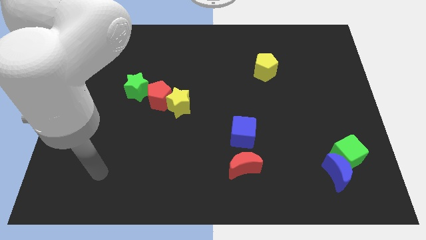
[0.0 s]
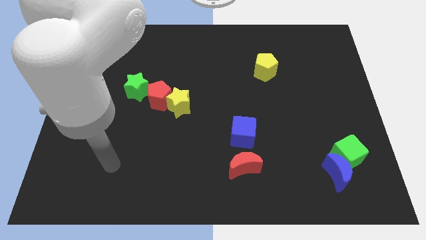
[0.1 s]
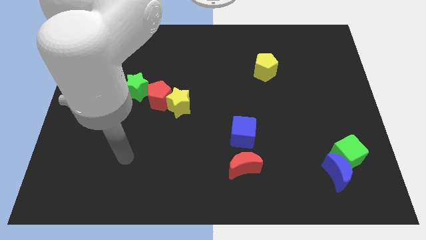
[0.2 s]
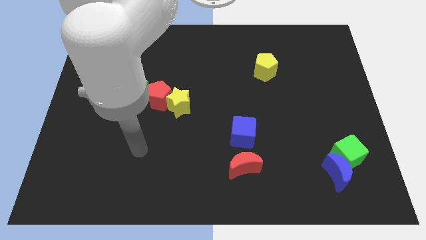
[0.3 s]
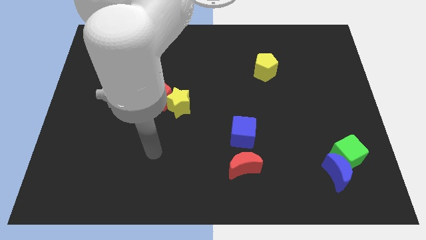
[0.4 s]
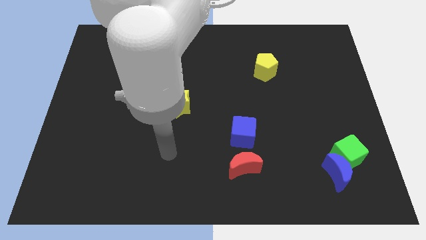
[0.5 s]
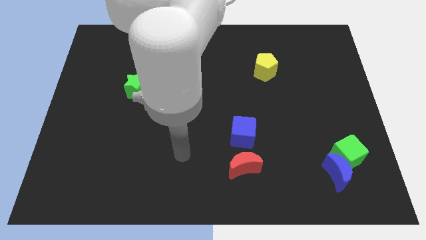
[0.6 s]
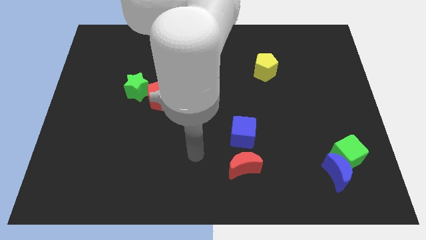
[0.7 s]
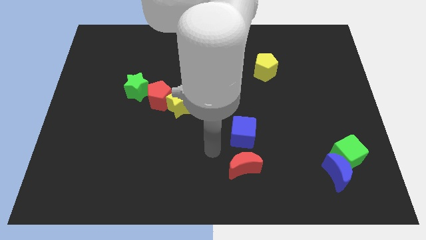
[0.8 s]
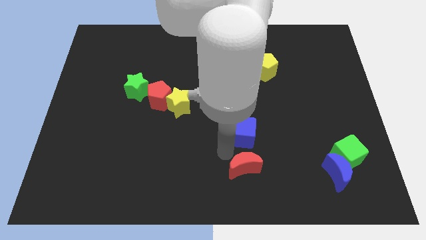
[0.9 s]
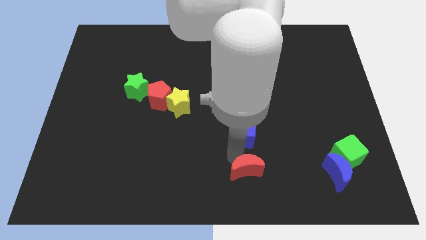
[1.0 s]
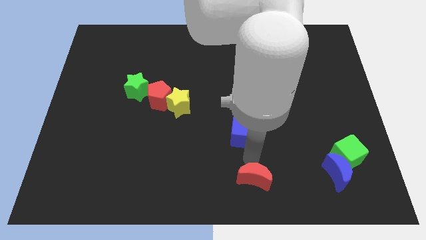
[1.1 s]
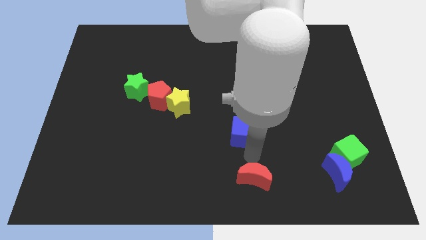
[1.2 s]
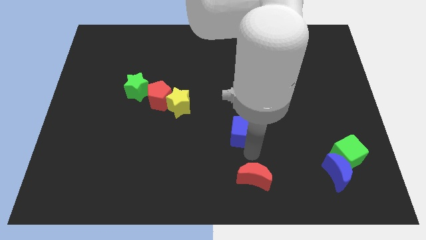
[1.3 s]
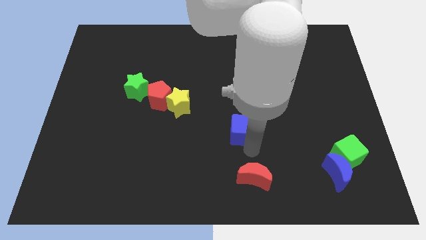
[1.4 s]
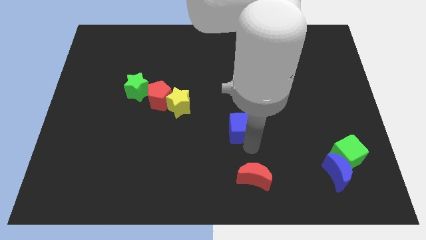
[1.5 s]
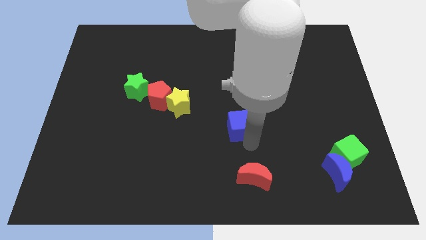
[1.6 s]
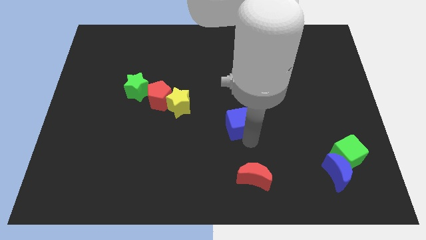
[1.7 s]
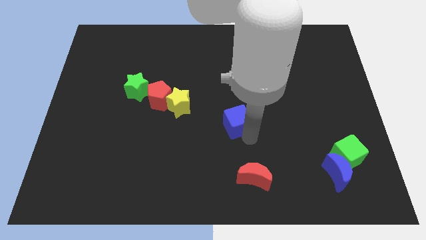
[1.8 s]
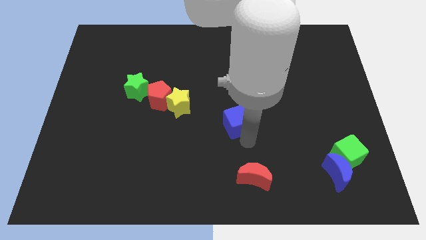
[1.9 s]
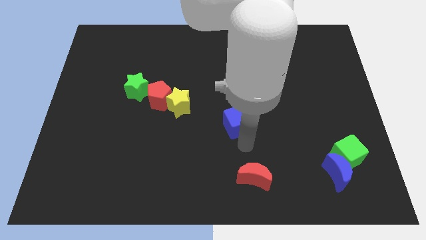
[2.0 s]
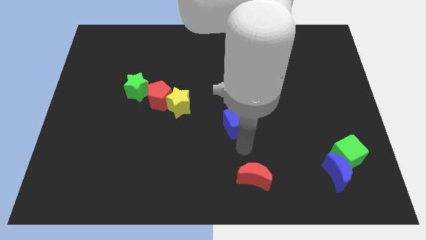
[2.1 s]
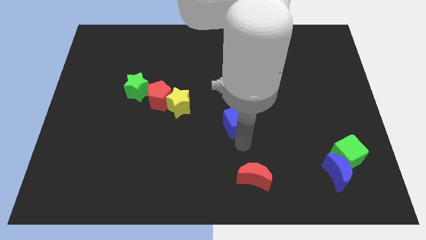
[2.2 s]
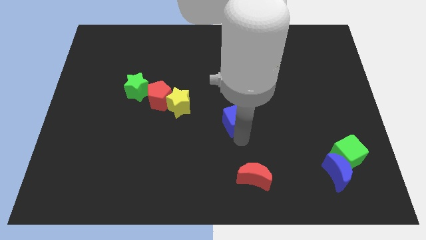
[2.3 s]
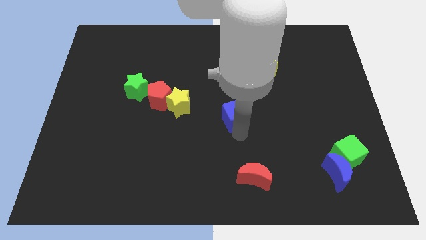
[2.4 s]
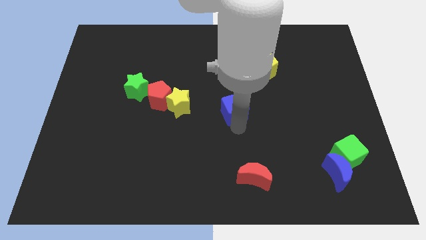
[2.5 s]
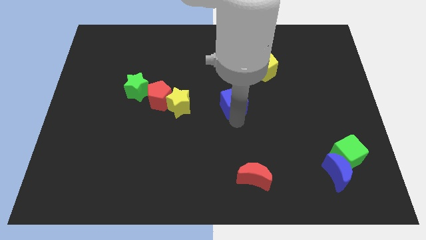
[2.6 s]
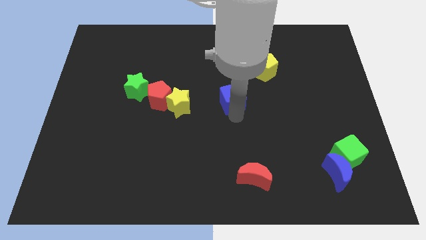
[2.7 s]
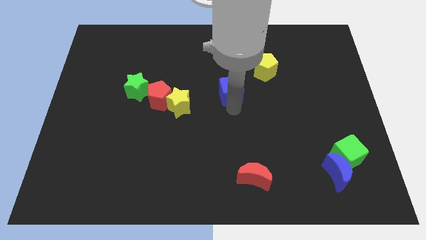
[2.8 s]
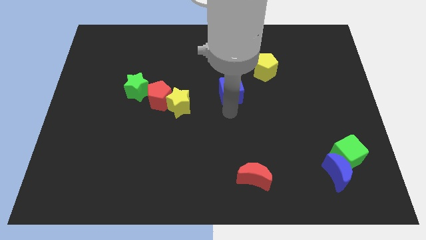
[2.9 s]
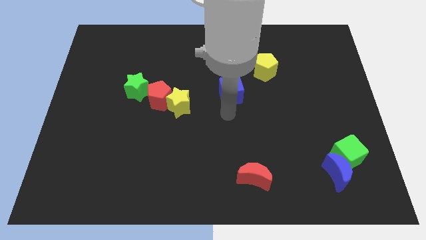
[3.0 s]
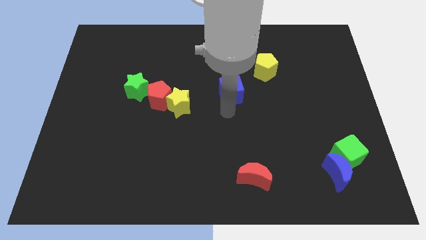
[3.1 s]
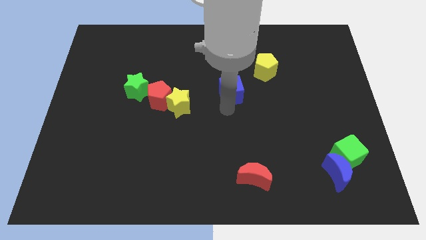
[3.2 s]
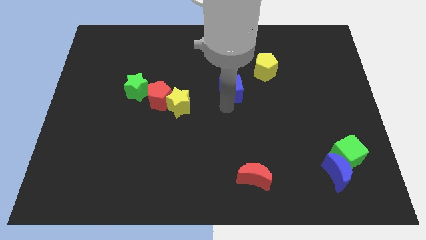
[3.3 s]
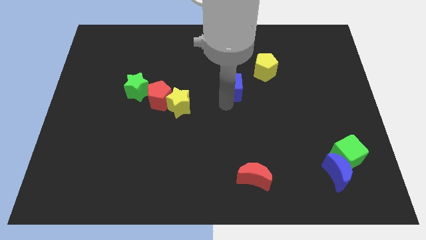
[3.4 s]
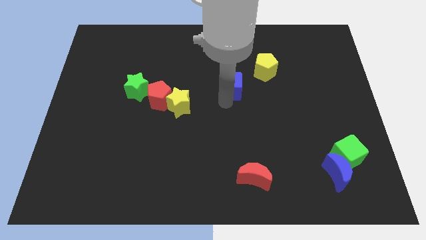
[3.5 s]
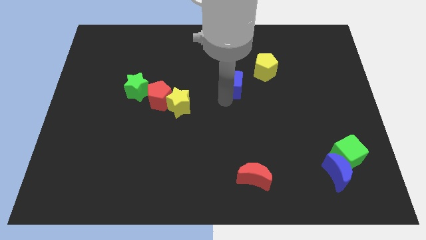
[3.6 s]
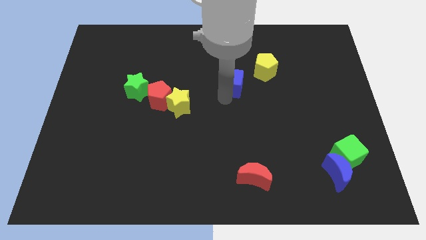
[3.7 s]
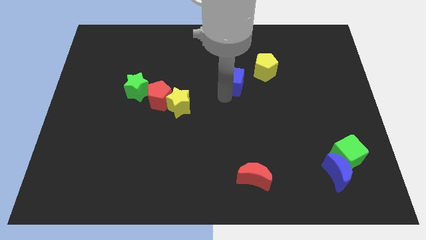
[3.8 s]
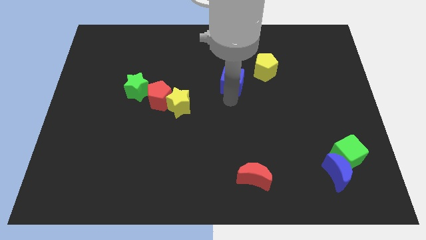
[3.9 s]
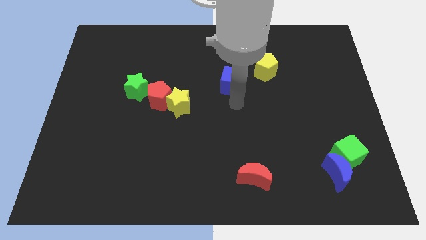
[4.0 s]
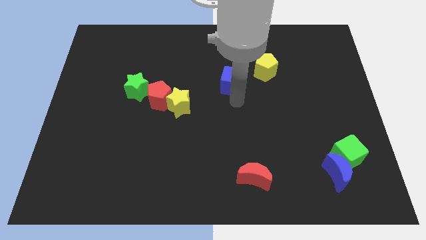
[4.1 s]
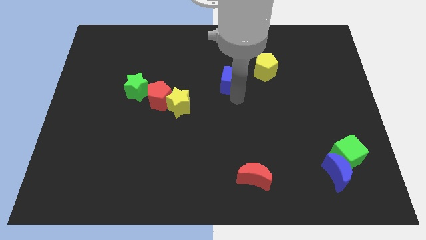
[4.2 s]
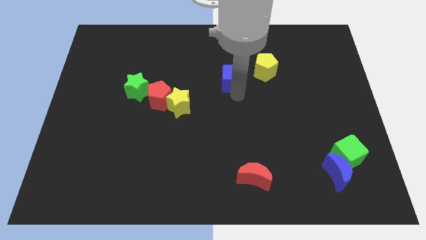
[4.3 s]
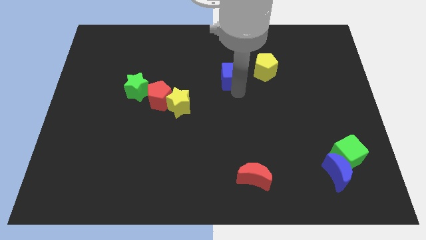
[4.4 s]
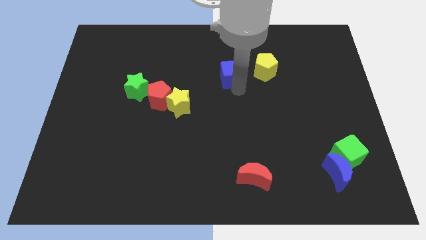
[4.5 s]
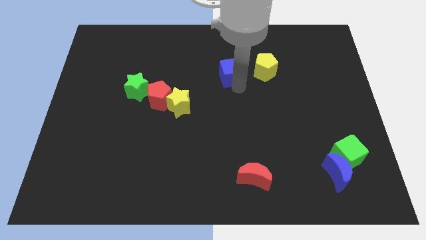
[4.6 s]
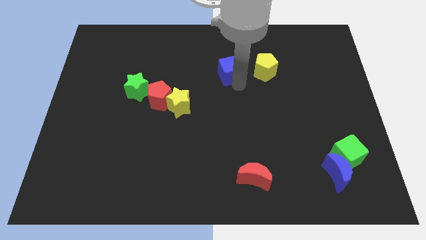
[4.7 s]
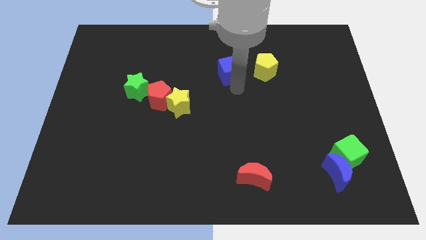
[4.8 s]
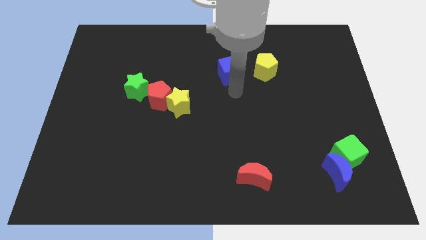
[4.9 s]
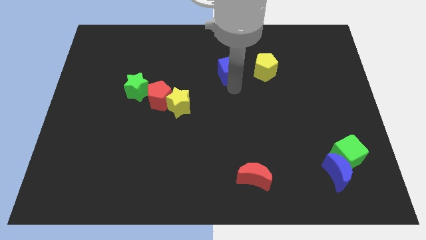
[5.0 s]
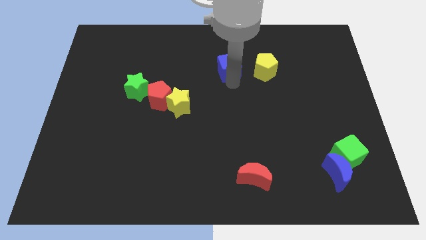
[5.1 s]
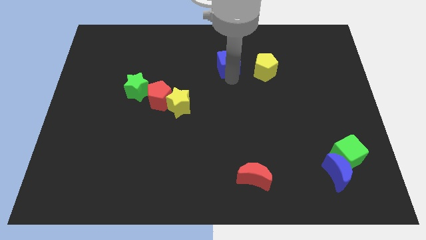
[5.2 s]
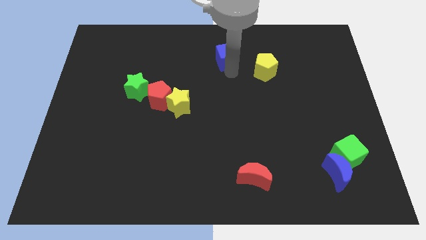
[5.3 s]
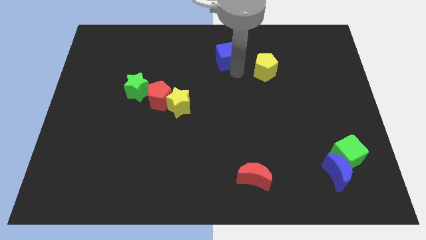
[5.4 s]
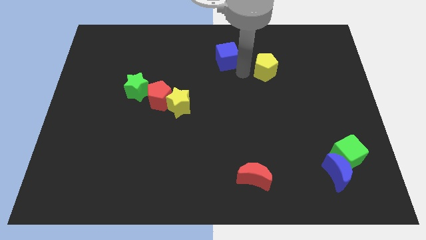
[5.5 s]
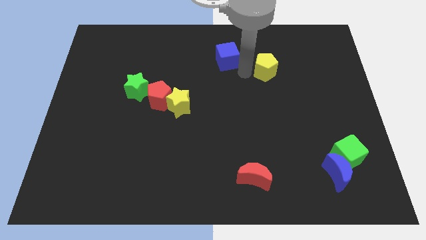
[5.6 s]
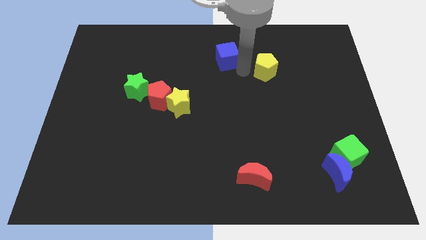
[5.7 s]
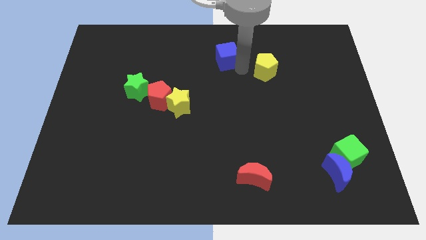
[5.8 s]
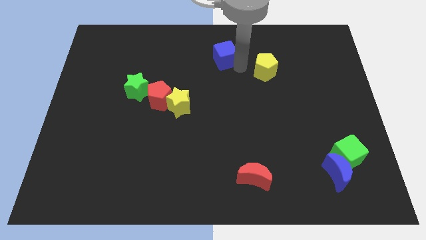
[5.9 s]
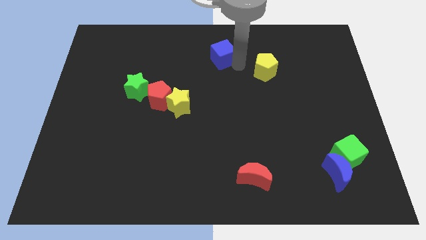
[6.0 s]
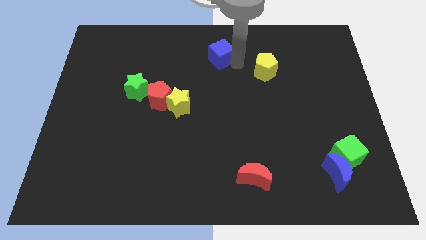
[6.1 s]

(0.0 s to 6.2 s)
slide the blue cube to the top side
